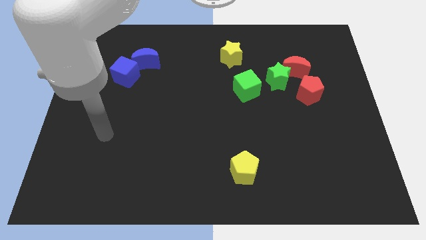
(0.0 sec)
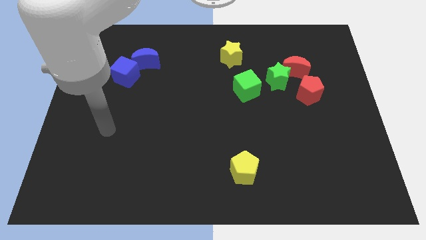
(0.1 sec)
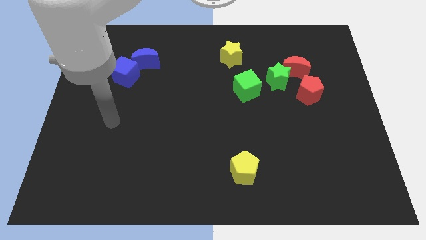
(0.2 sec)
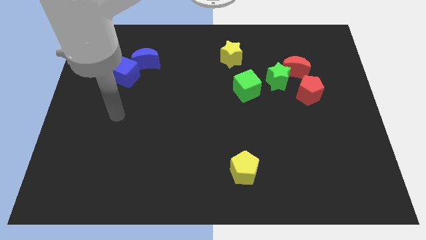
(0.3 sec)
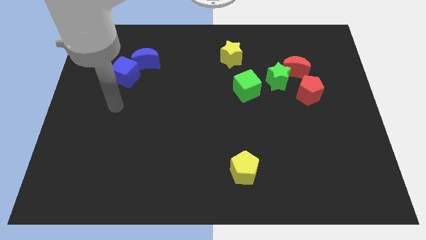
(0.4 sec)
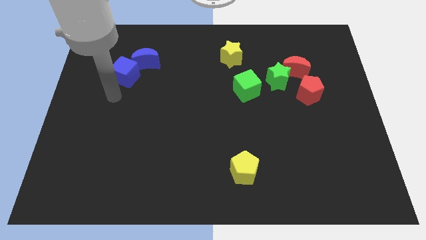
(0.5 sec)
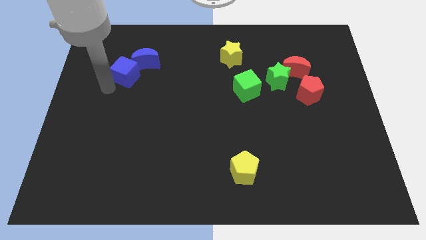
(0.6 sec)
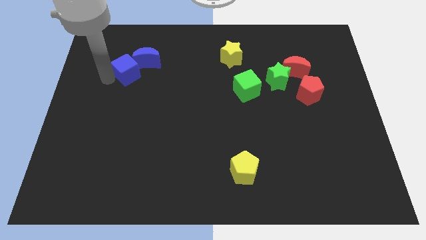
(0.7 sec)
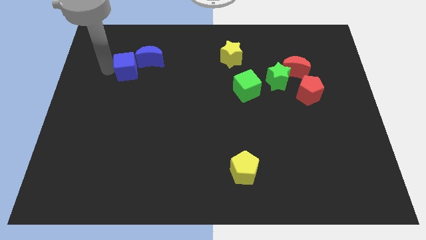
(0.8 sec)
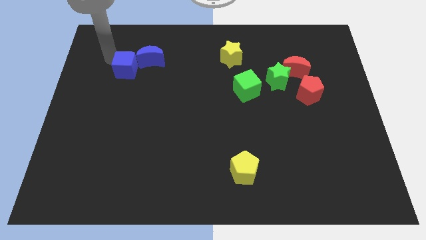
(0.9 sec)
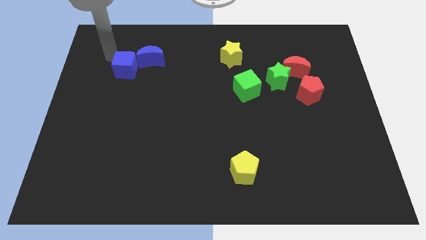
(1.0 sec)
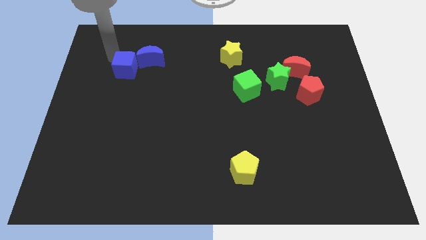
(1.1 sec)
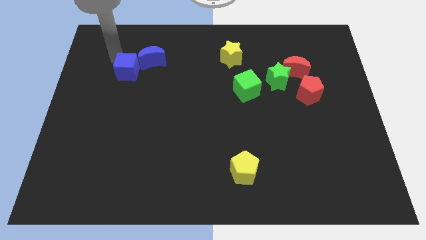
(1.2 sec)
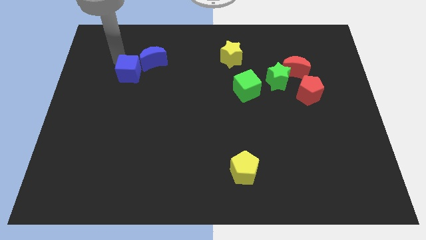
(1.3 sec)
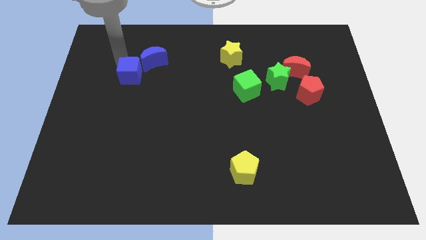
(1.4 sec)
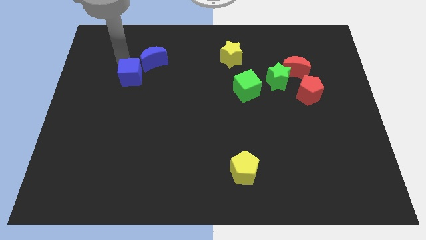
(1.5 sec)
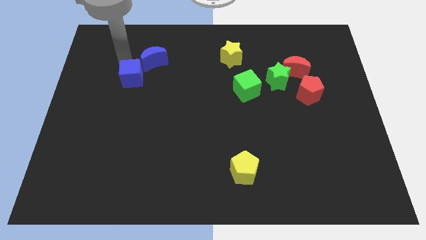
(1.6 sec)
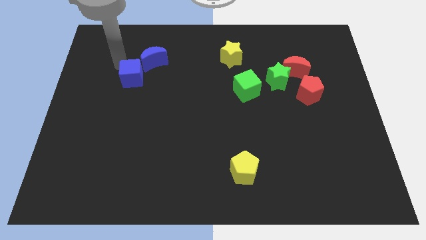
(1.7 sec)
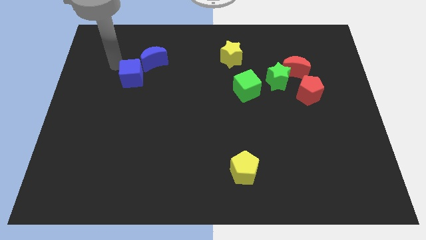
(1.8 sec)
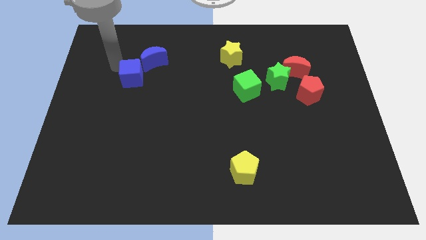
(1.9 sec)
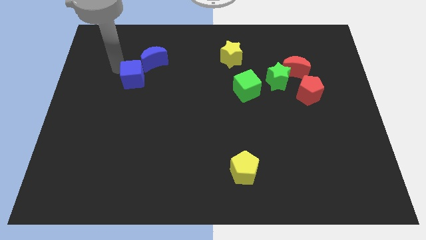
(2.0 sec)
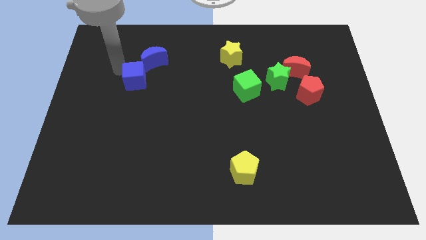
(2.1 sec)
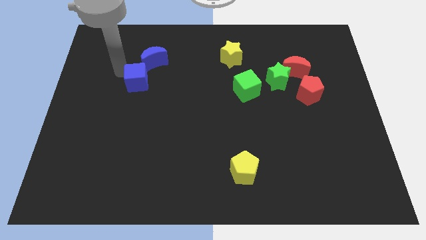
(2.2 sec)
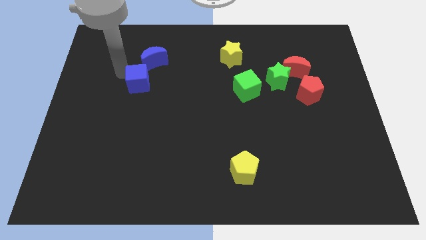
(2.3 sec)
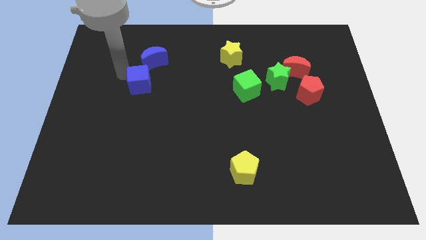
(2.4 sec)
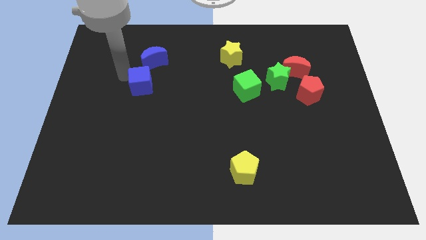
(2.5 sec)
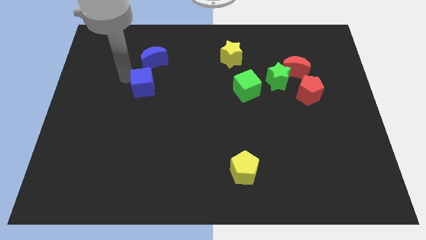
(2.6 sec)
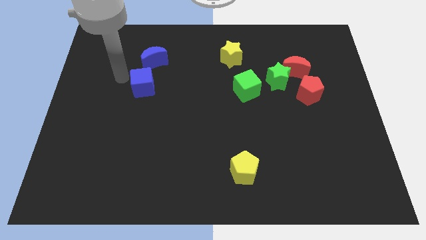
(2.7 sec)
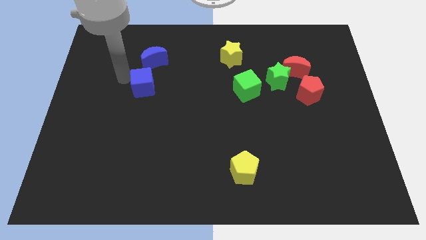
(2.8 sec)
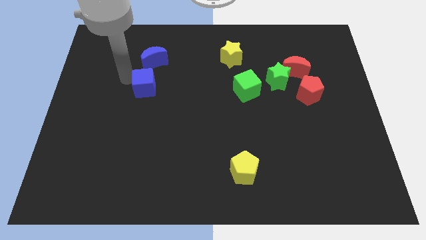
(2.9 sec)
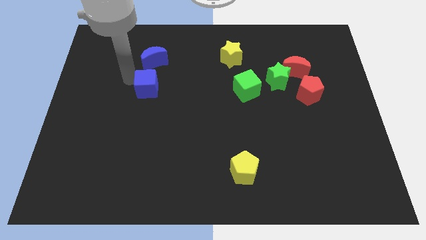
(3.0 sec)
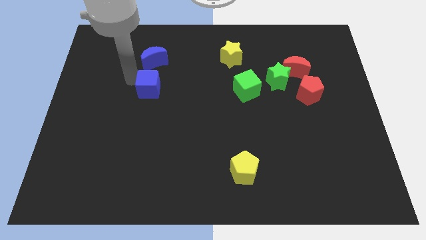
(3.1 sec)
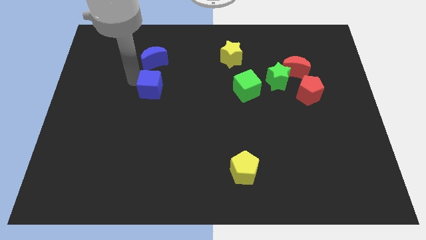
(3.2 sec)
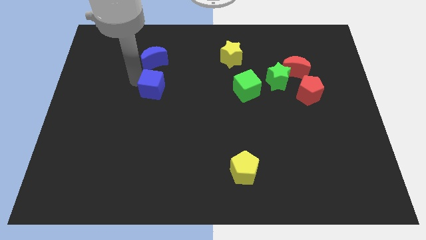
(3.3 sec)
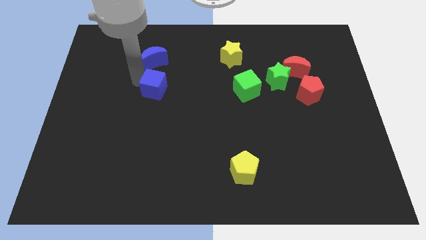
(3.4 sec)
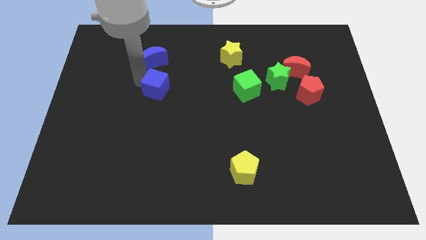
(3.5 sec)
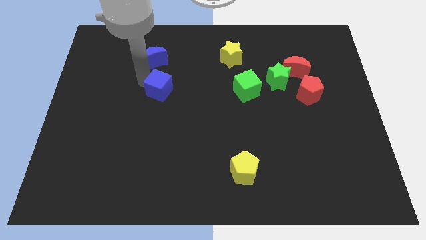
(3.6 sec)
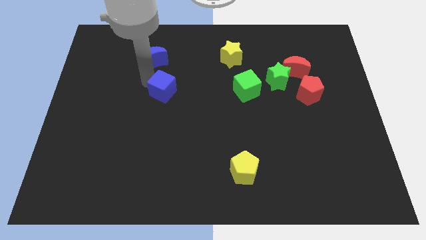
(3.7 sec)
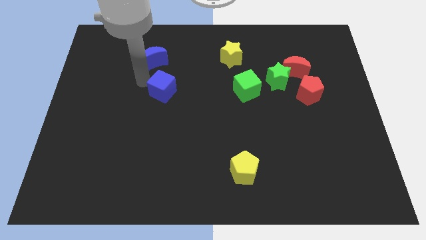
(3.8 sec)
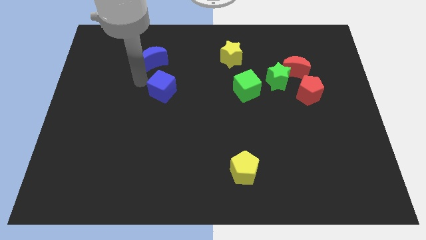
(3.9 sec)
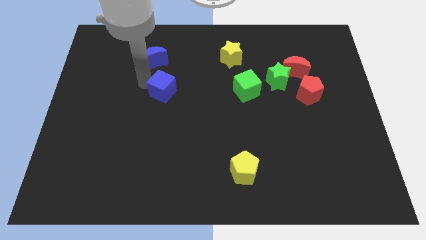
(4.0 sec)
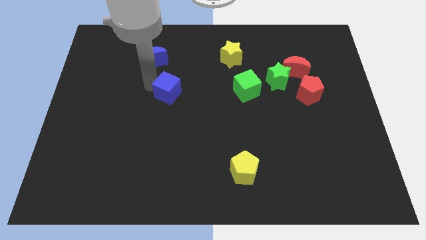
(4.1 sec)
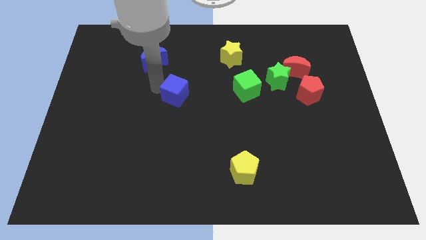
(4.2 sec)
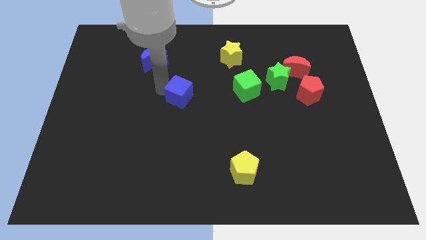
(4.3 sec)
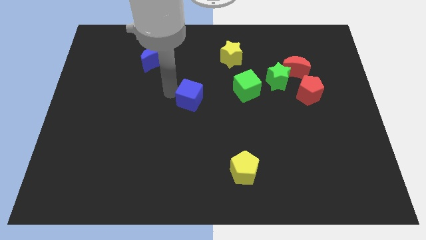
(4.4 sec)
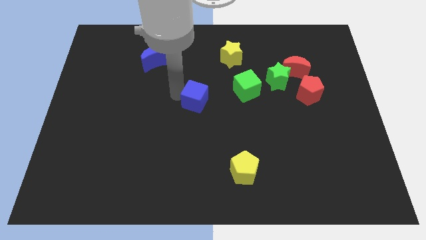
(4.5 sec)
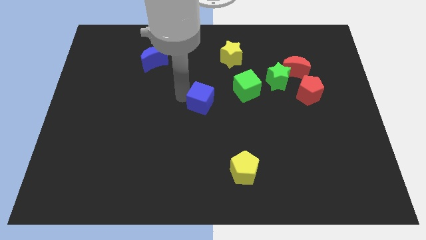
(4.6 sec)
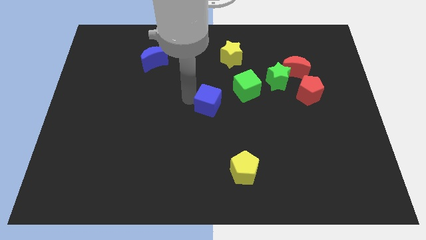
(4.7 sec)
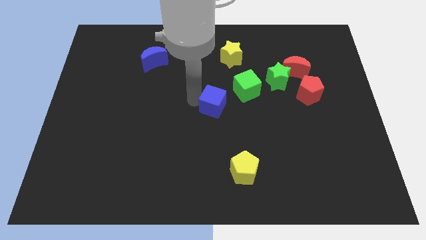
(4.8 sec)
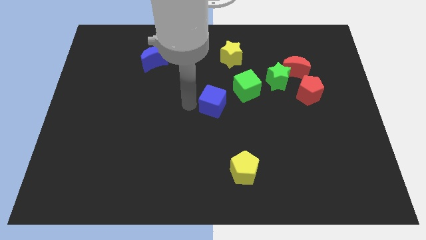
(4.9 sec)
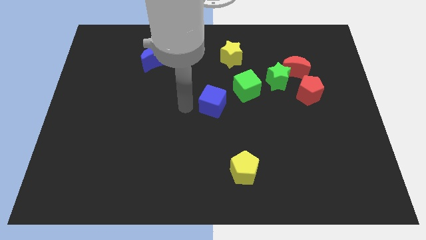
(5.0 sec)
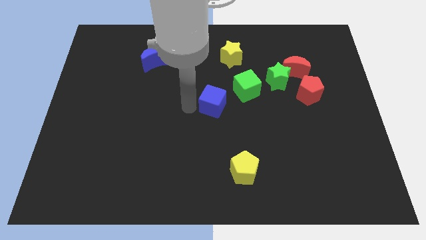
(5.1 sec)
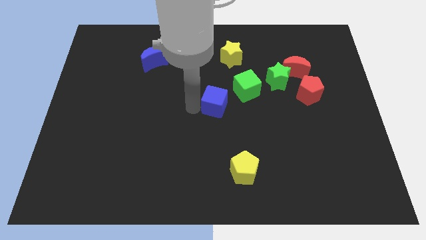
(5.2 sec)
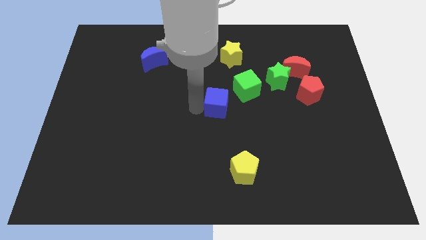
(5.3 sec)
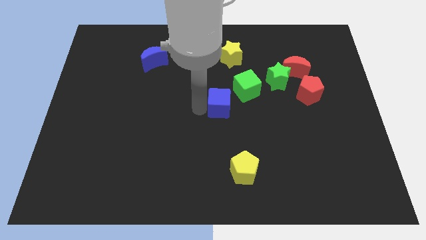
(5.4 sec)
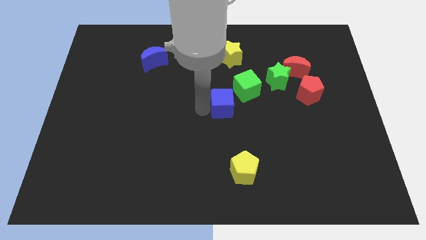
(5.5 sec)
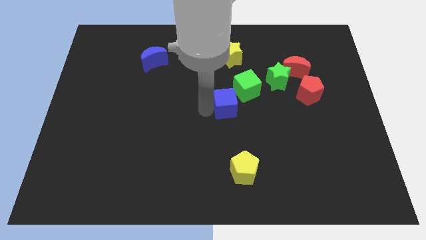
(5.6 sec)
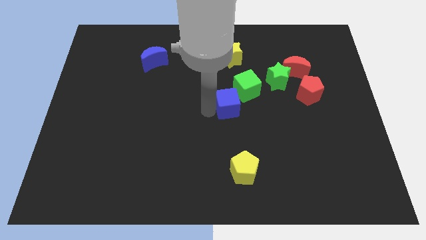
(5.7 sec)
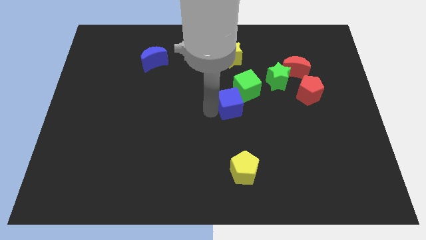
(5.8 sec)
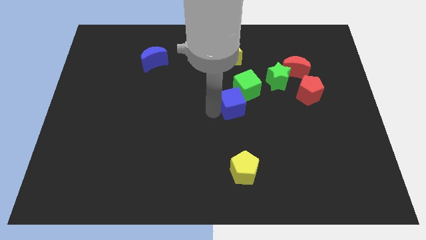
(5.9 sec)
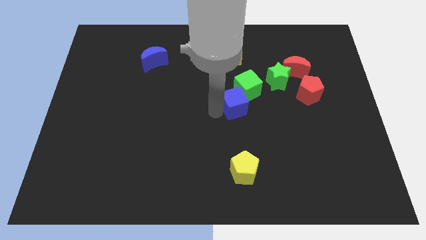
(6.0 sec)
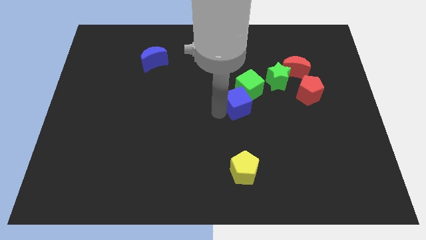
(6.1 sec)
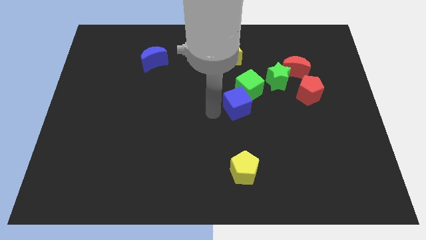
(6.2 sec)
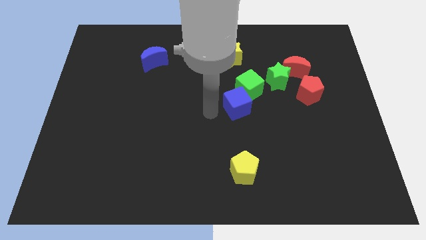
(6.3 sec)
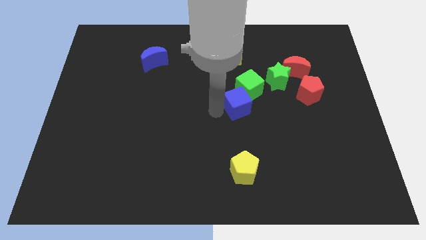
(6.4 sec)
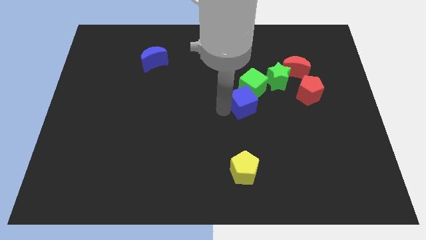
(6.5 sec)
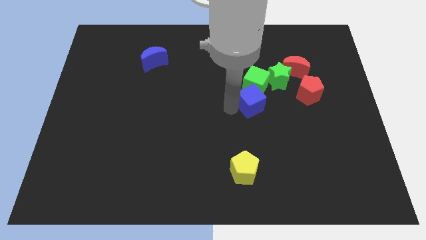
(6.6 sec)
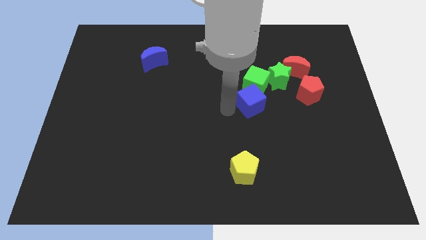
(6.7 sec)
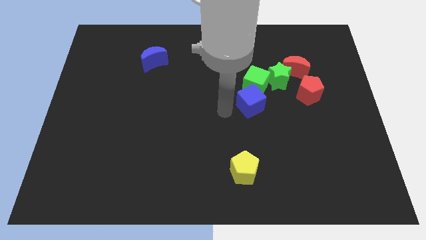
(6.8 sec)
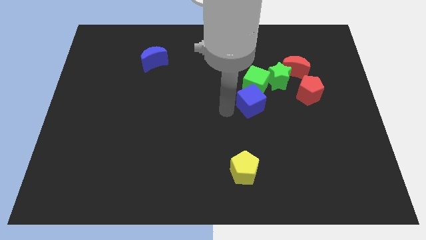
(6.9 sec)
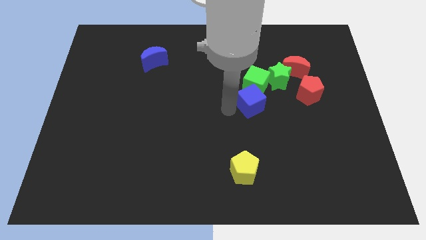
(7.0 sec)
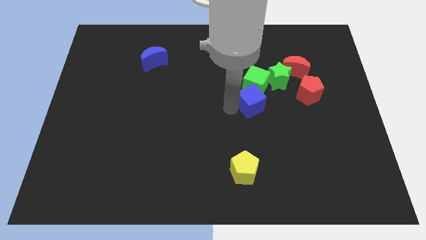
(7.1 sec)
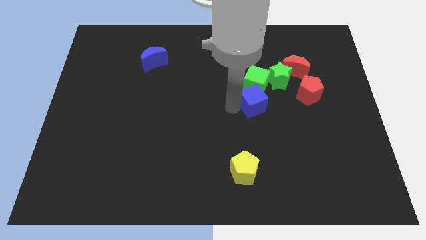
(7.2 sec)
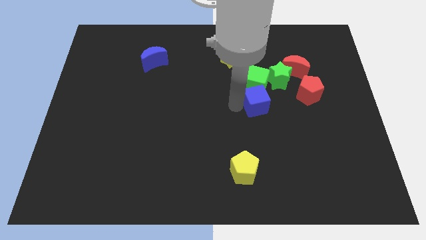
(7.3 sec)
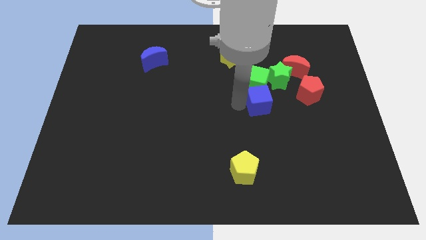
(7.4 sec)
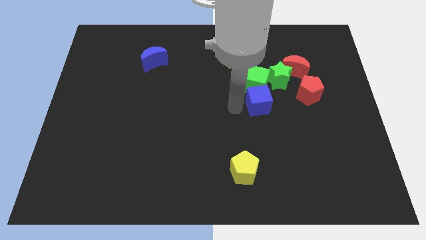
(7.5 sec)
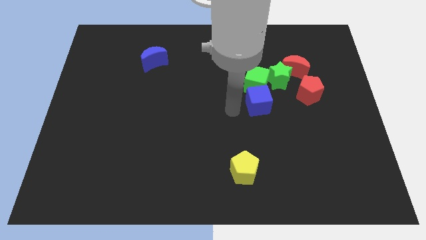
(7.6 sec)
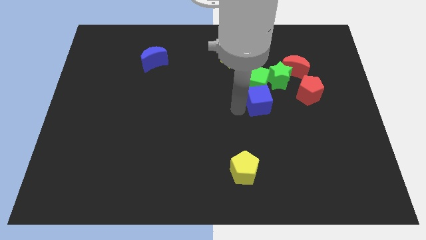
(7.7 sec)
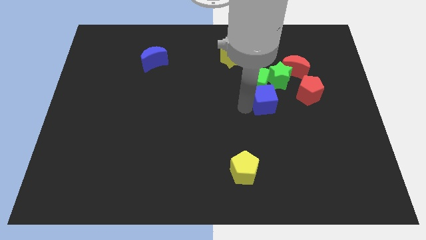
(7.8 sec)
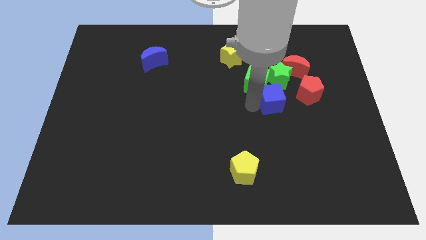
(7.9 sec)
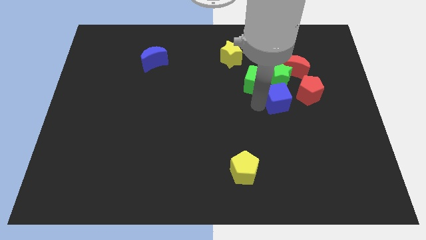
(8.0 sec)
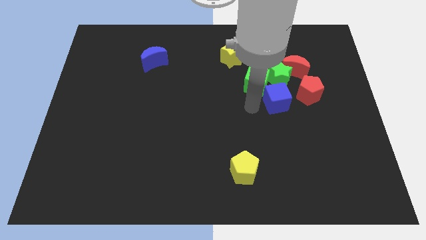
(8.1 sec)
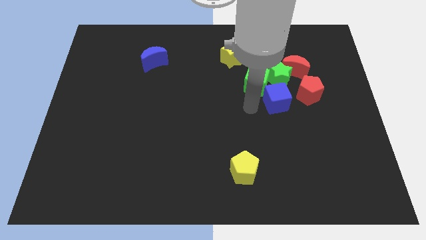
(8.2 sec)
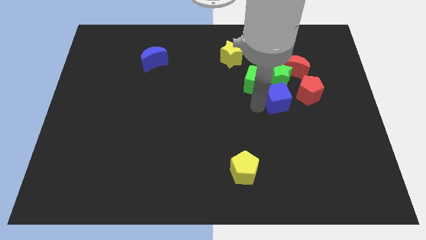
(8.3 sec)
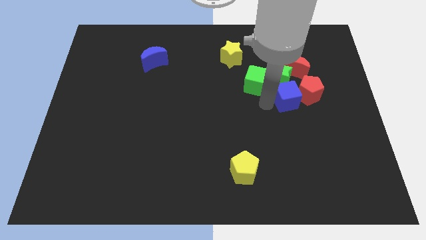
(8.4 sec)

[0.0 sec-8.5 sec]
slide the blue cube close to the red pentagon
